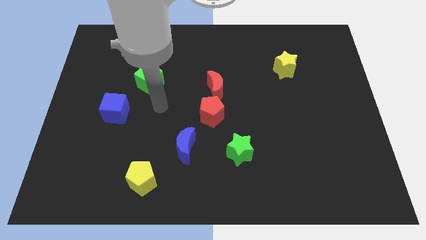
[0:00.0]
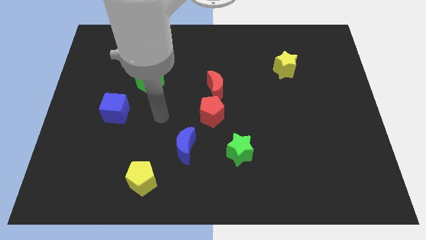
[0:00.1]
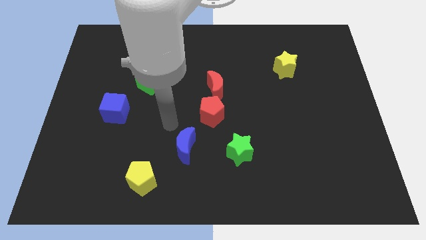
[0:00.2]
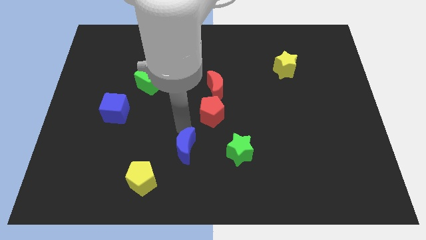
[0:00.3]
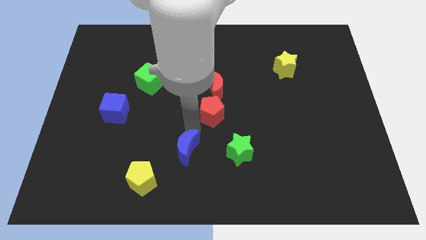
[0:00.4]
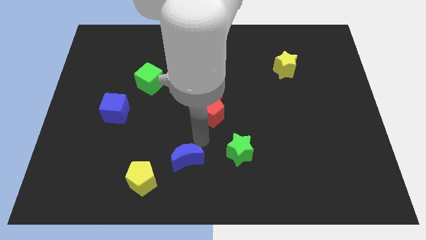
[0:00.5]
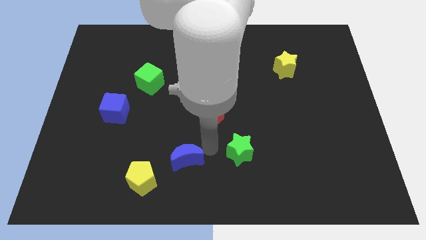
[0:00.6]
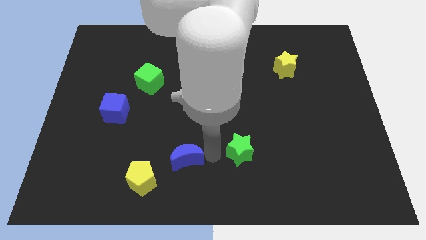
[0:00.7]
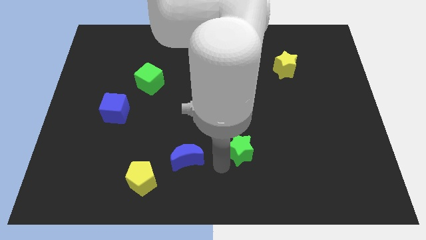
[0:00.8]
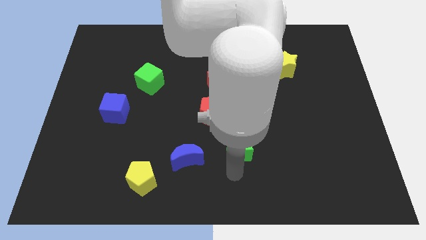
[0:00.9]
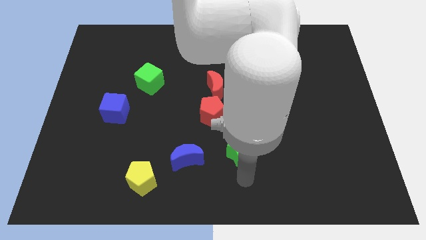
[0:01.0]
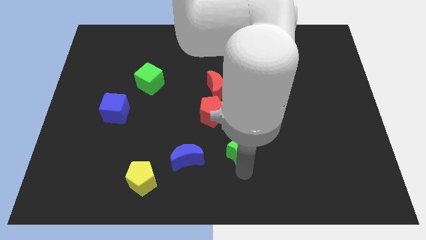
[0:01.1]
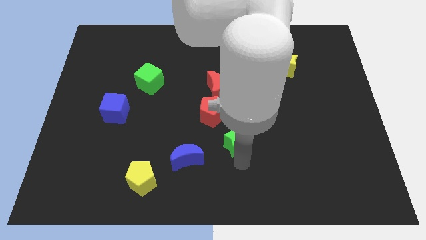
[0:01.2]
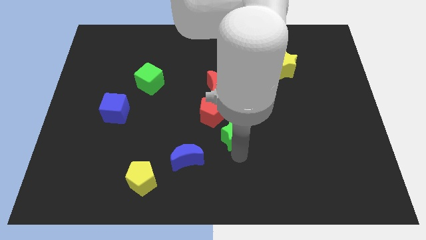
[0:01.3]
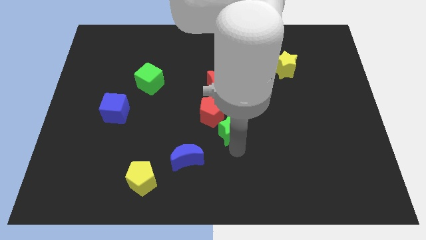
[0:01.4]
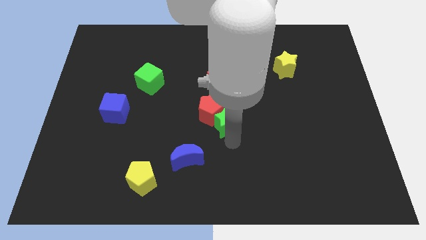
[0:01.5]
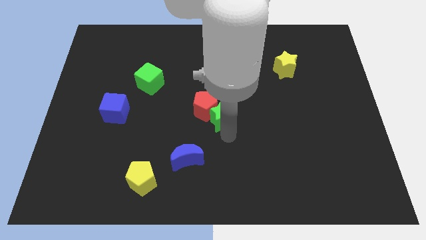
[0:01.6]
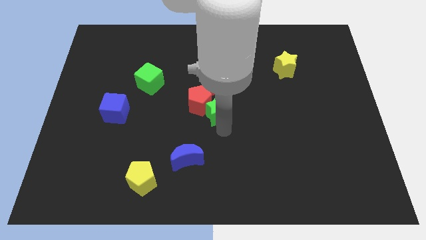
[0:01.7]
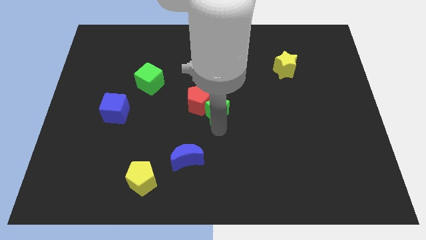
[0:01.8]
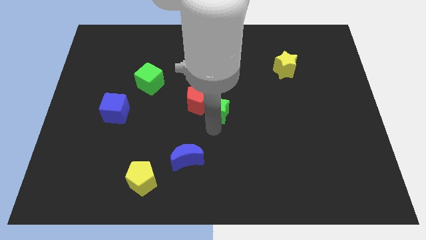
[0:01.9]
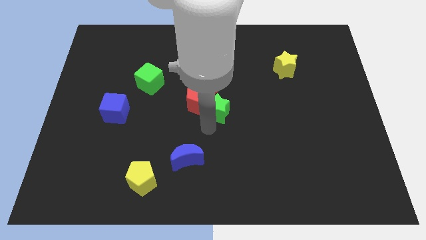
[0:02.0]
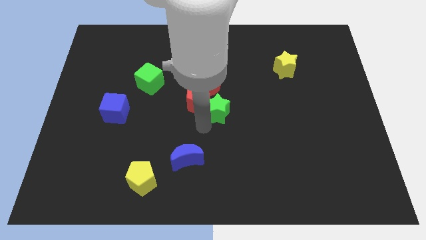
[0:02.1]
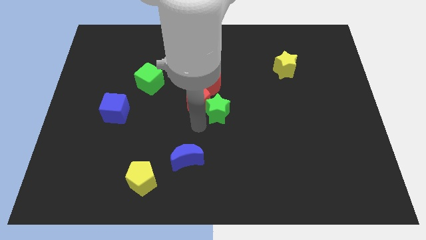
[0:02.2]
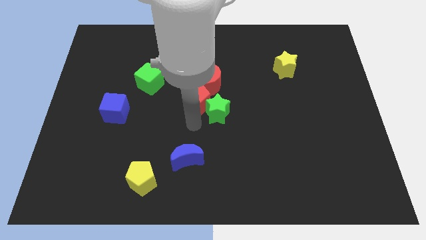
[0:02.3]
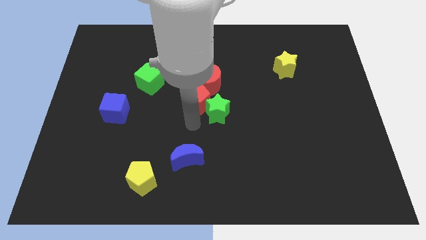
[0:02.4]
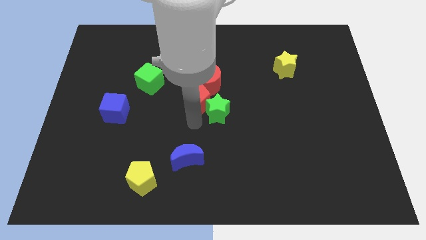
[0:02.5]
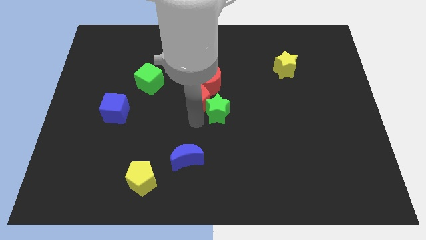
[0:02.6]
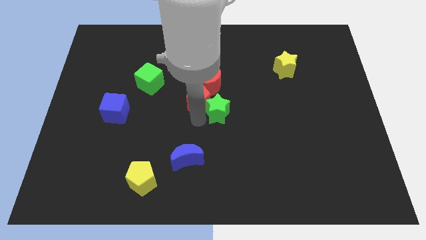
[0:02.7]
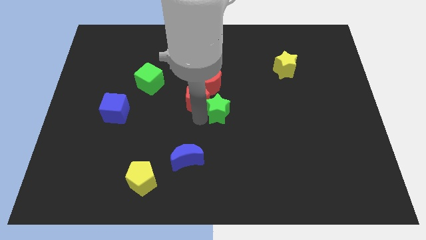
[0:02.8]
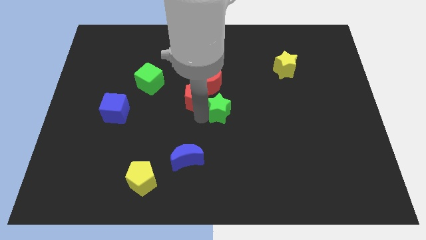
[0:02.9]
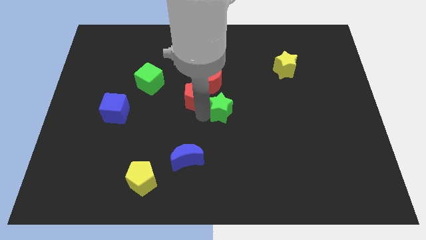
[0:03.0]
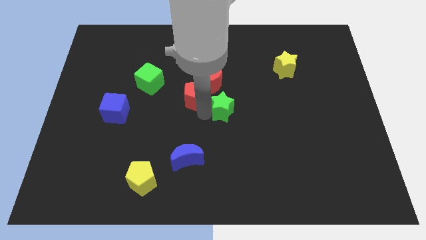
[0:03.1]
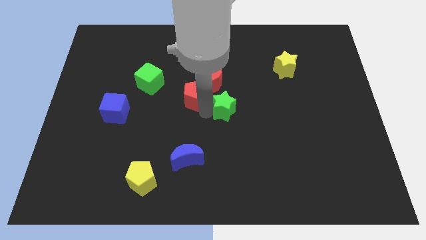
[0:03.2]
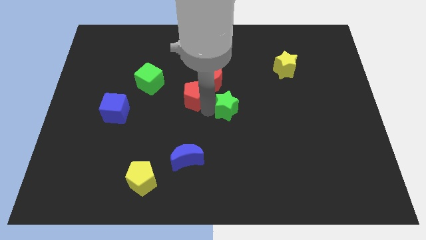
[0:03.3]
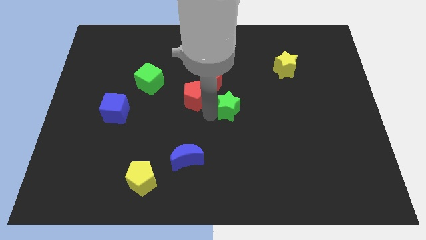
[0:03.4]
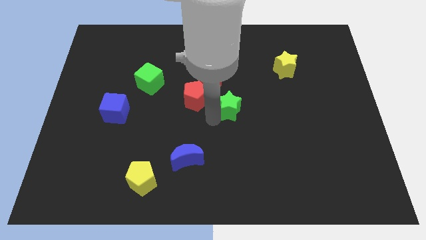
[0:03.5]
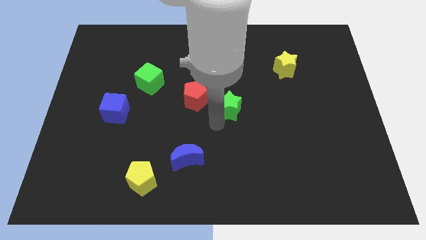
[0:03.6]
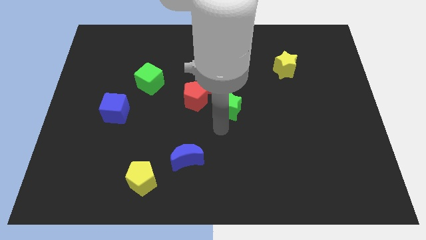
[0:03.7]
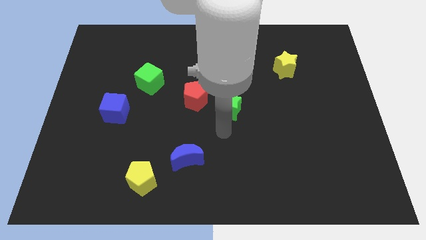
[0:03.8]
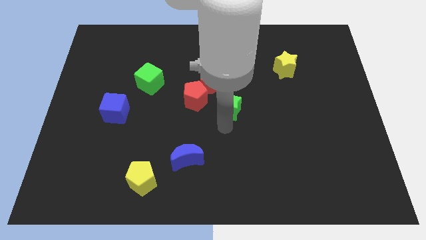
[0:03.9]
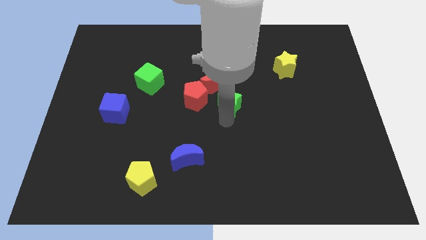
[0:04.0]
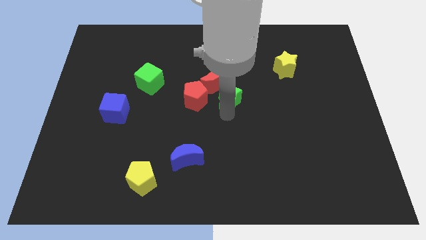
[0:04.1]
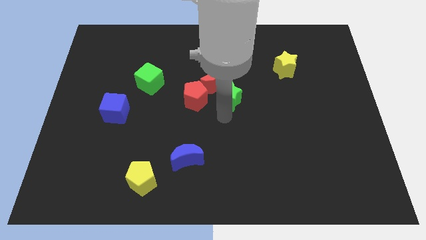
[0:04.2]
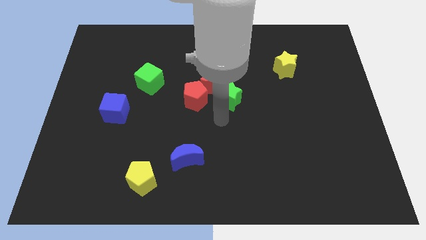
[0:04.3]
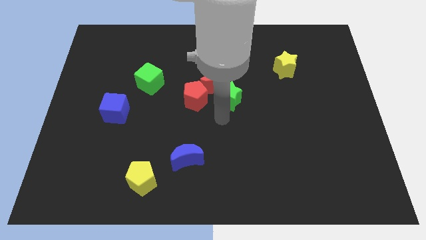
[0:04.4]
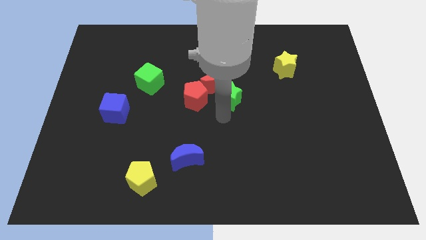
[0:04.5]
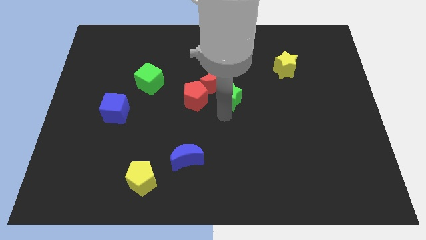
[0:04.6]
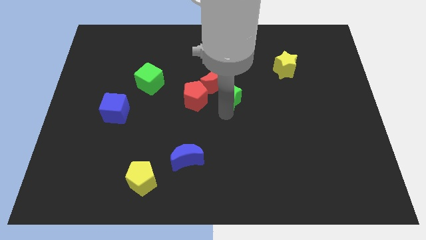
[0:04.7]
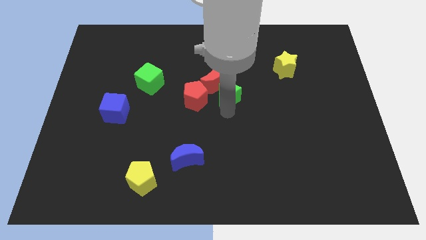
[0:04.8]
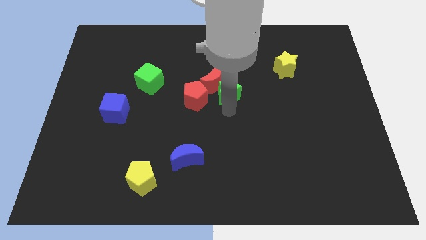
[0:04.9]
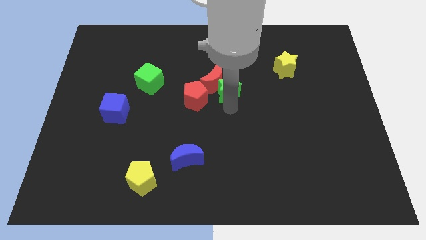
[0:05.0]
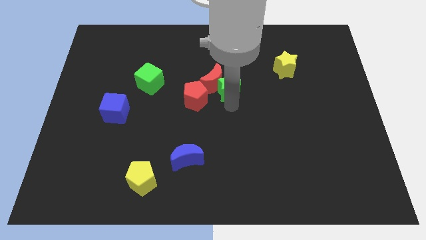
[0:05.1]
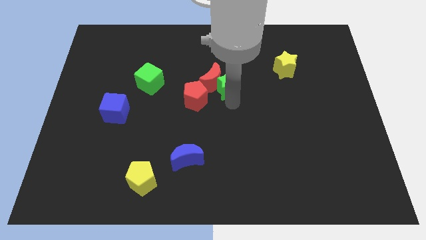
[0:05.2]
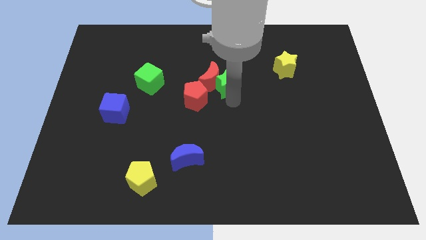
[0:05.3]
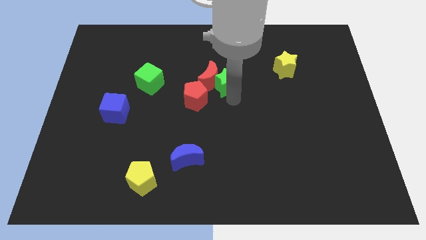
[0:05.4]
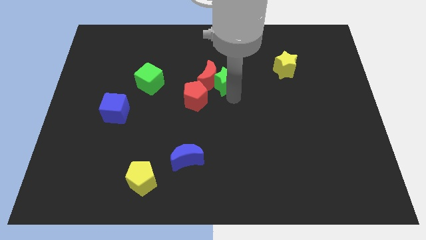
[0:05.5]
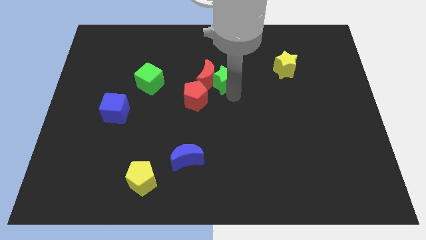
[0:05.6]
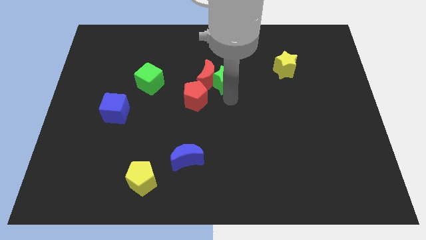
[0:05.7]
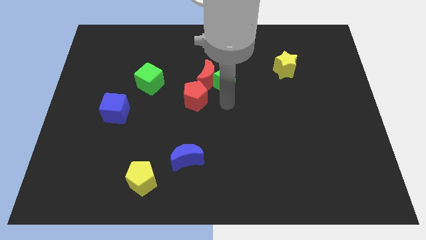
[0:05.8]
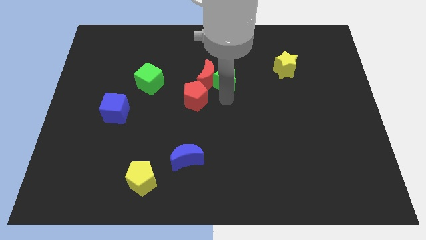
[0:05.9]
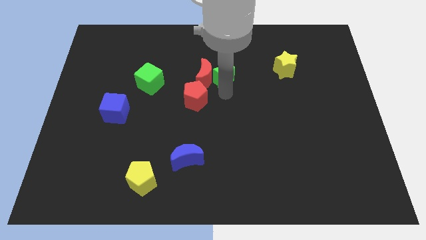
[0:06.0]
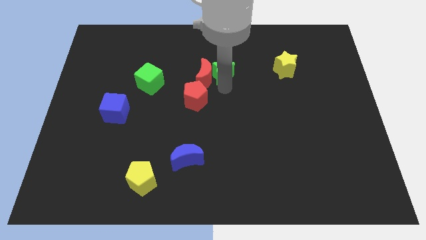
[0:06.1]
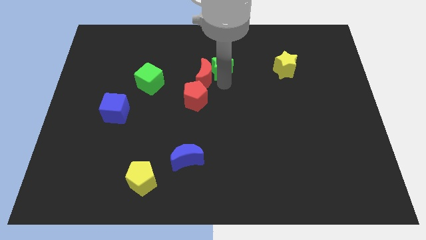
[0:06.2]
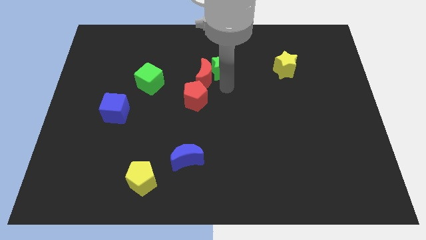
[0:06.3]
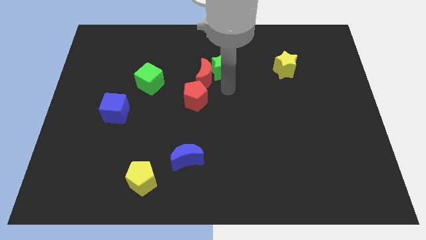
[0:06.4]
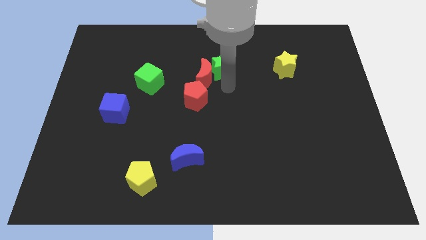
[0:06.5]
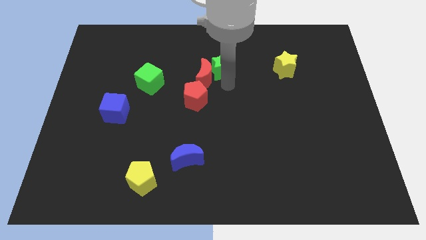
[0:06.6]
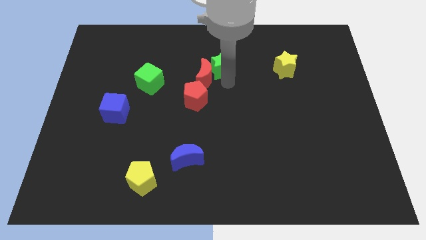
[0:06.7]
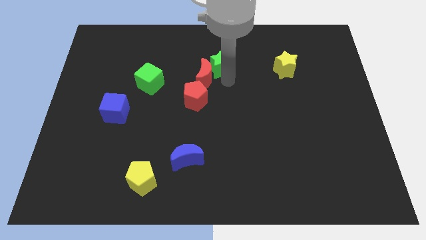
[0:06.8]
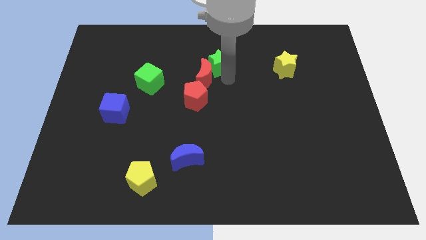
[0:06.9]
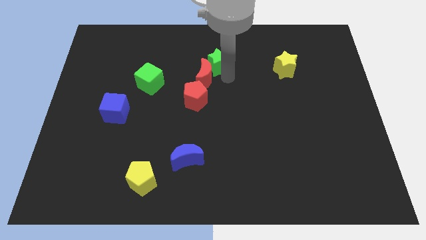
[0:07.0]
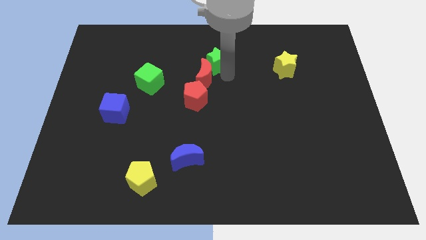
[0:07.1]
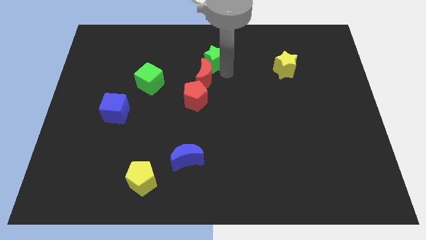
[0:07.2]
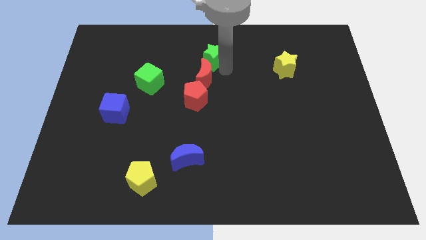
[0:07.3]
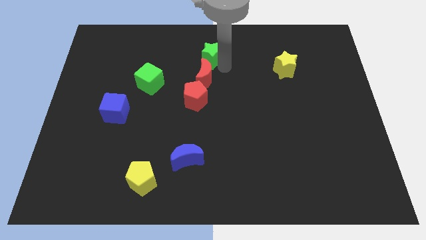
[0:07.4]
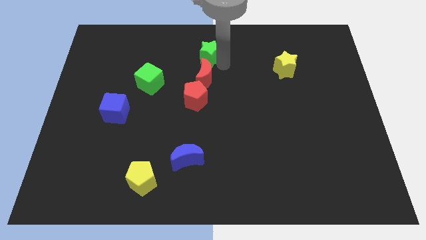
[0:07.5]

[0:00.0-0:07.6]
push the green star to the top side
